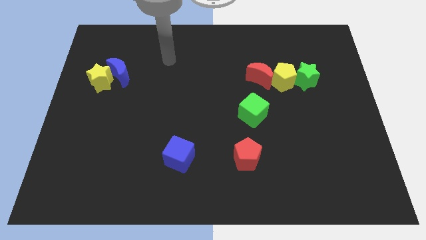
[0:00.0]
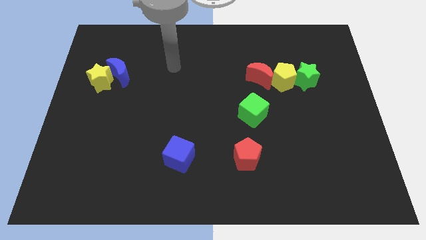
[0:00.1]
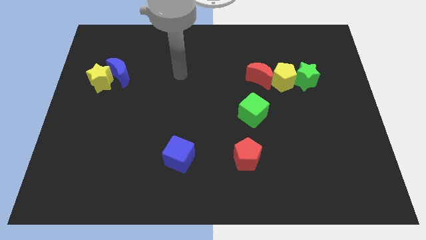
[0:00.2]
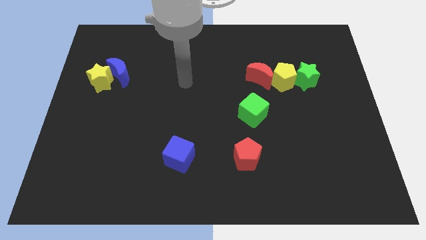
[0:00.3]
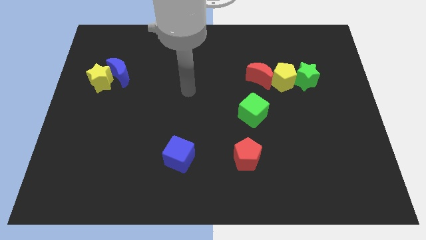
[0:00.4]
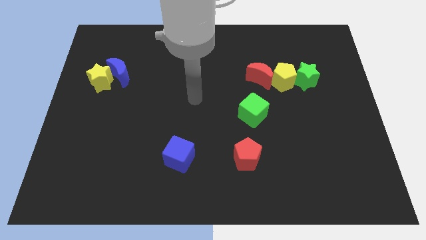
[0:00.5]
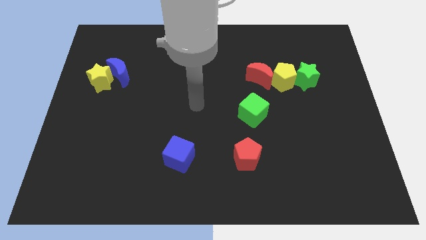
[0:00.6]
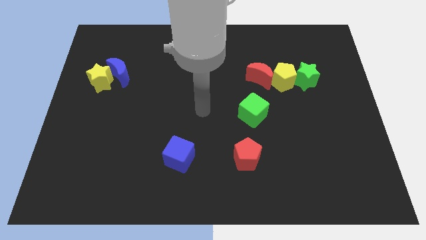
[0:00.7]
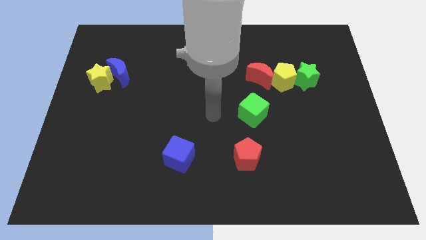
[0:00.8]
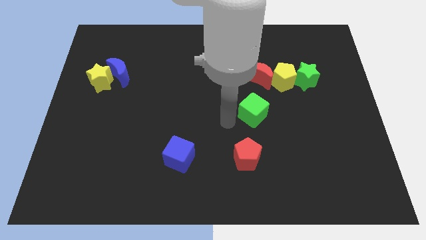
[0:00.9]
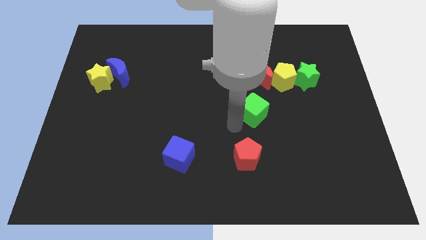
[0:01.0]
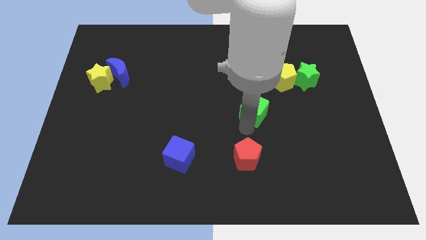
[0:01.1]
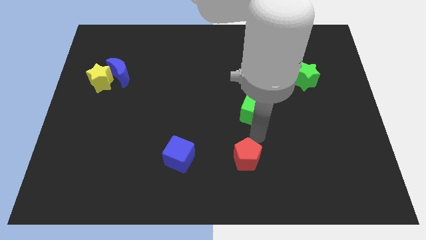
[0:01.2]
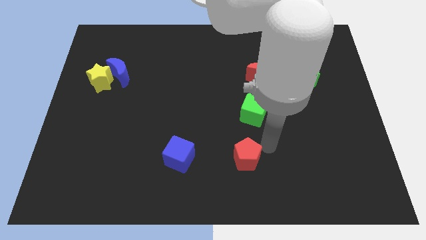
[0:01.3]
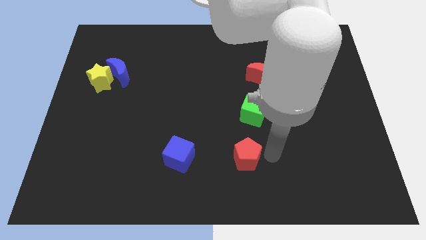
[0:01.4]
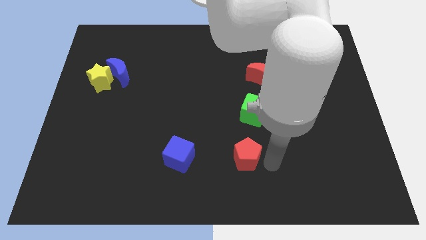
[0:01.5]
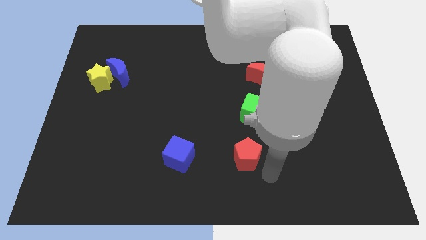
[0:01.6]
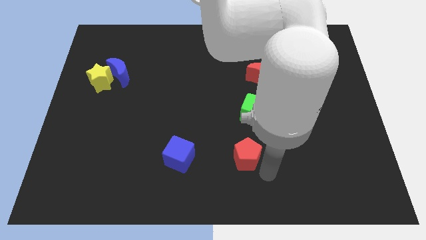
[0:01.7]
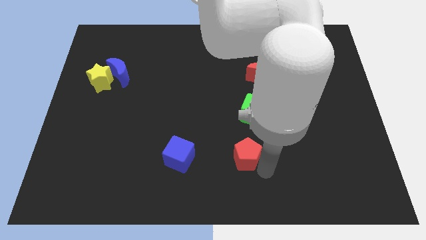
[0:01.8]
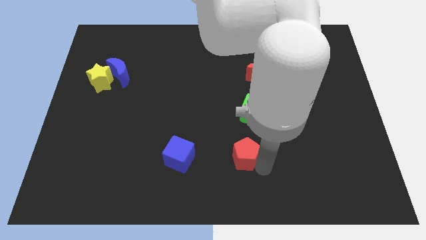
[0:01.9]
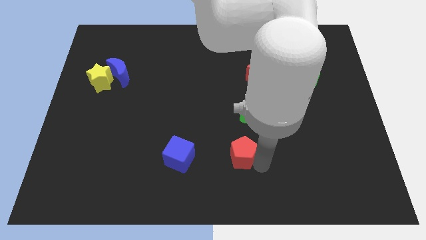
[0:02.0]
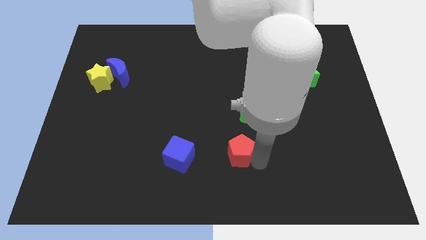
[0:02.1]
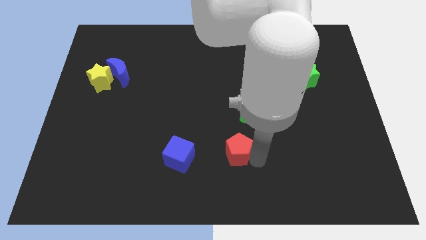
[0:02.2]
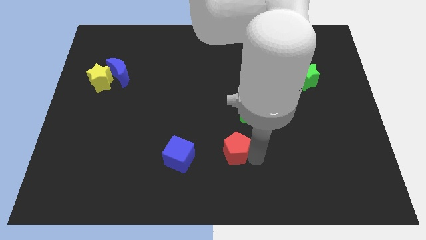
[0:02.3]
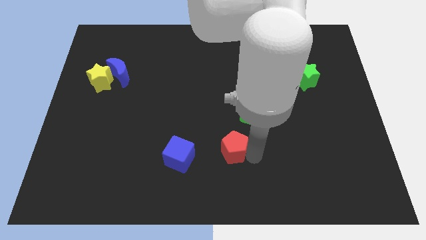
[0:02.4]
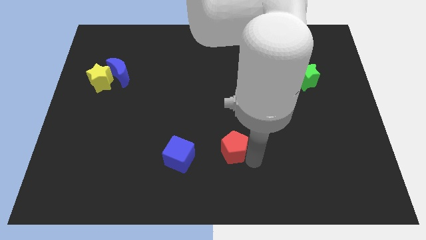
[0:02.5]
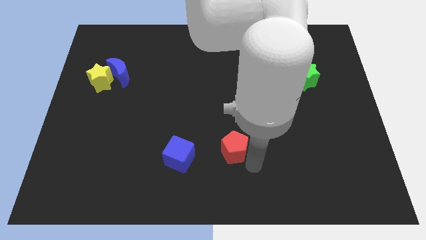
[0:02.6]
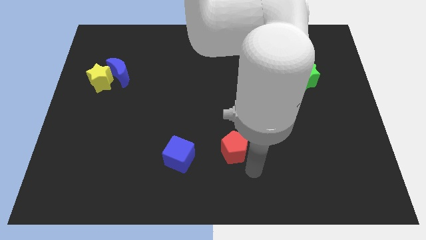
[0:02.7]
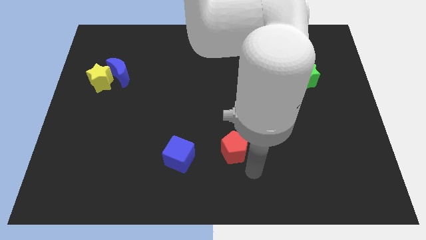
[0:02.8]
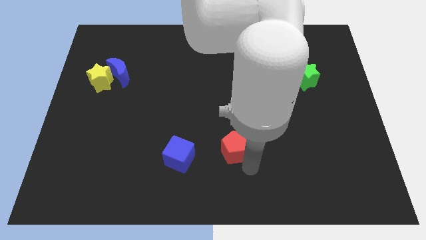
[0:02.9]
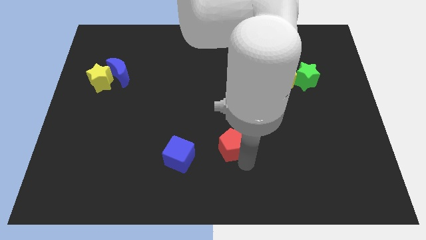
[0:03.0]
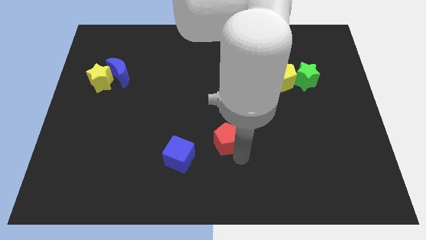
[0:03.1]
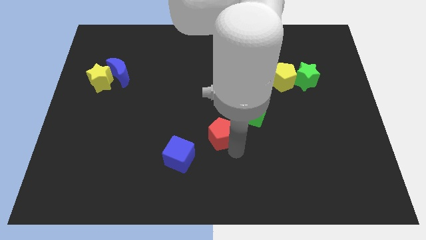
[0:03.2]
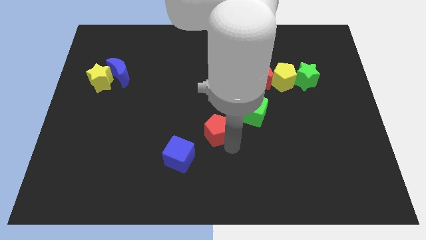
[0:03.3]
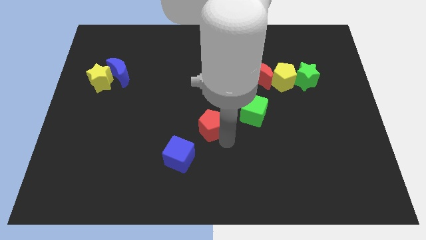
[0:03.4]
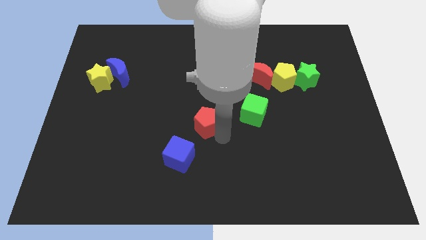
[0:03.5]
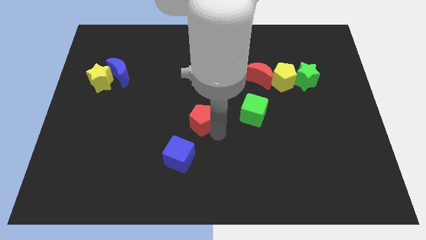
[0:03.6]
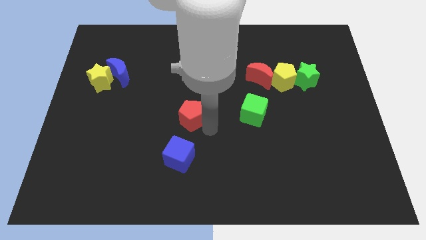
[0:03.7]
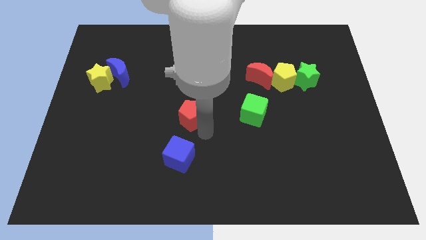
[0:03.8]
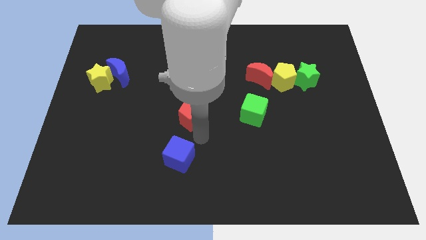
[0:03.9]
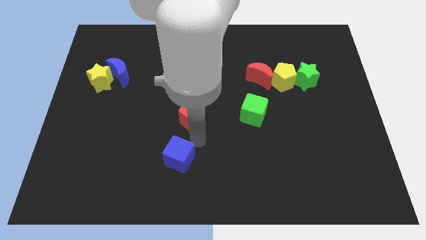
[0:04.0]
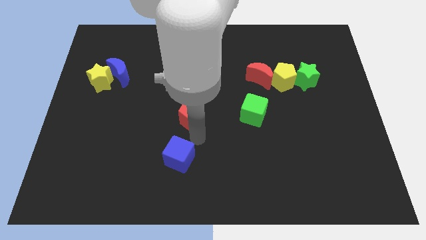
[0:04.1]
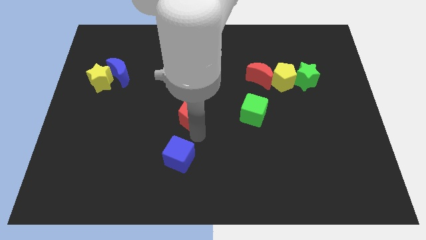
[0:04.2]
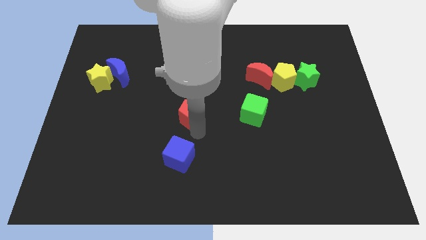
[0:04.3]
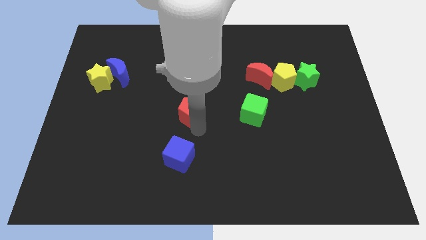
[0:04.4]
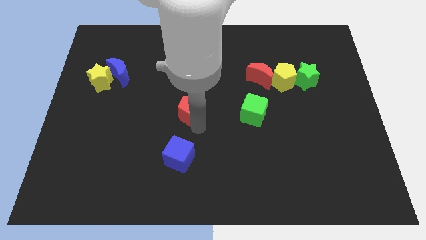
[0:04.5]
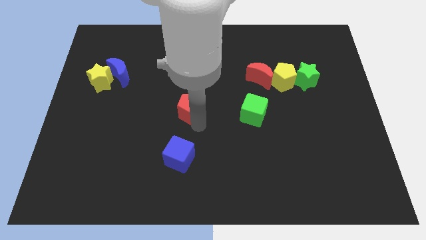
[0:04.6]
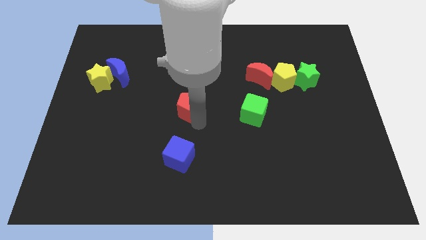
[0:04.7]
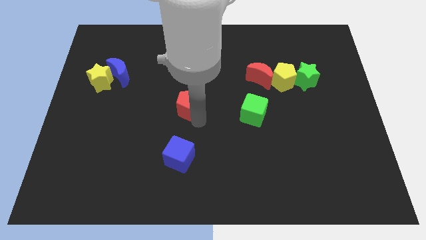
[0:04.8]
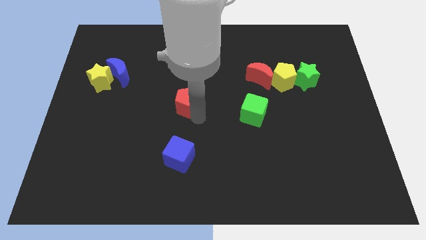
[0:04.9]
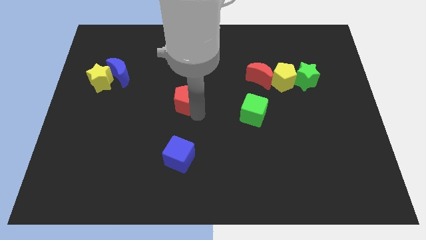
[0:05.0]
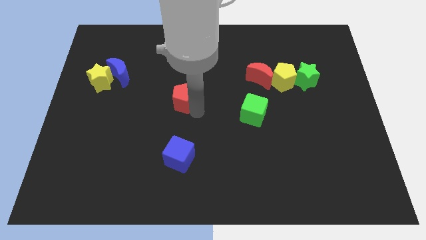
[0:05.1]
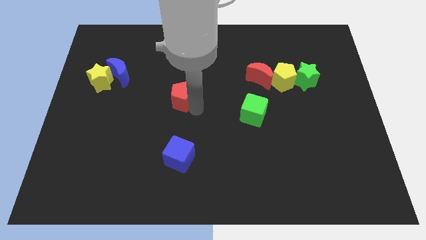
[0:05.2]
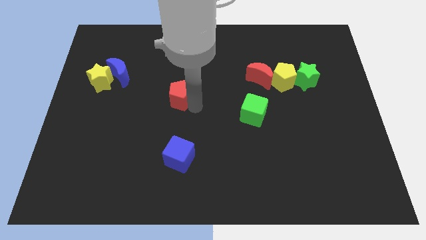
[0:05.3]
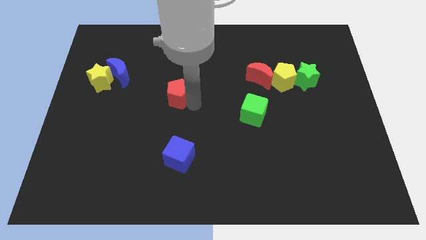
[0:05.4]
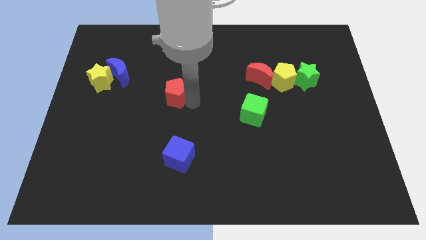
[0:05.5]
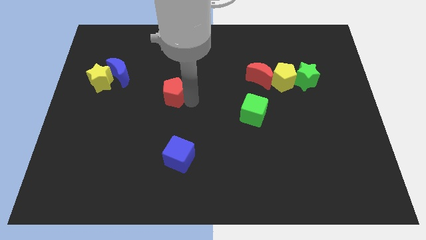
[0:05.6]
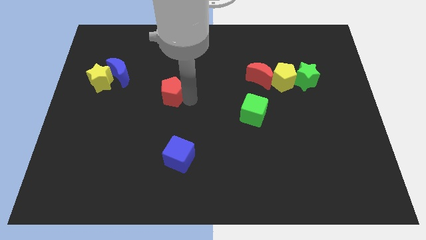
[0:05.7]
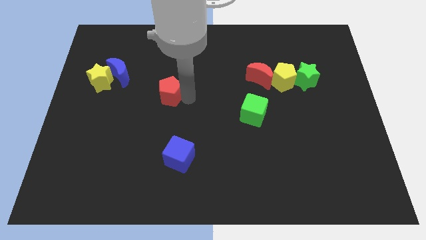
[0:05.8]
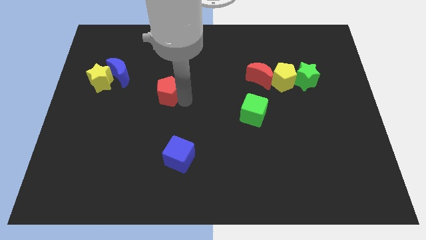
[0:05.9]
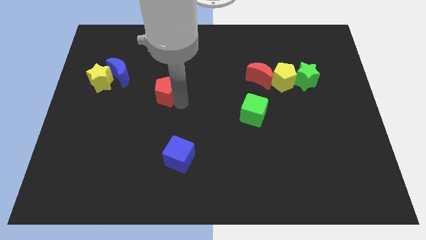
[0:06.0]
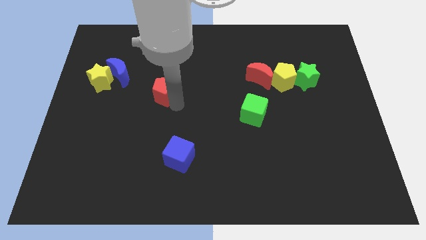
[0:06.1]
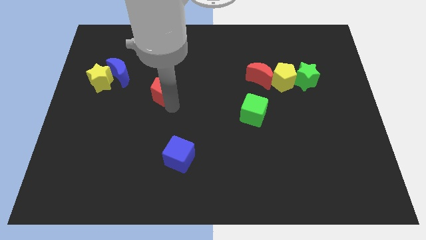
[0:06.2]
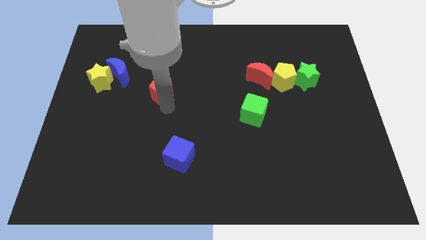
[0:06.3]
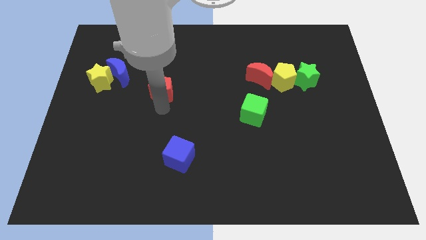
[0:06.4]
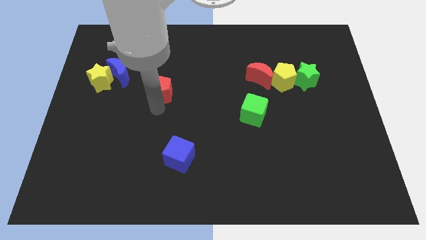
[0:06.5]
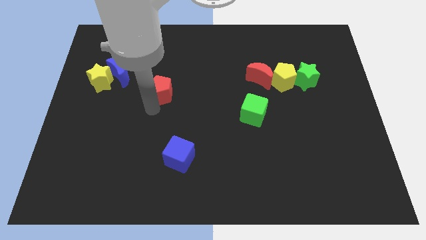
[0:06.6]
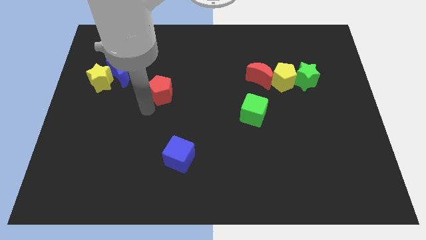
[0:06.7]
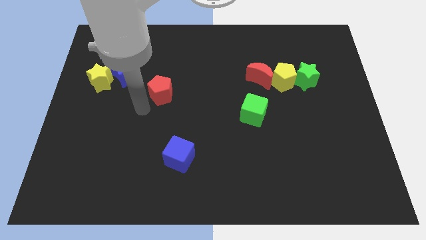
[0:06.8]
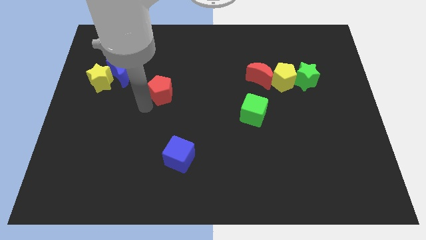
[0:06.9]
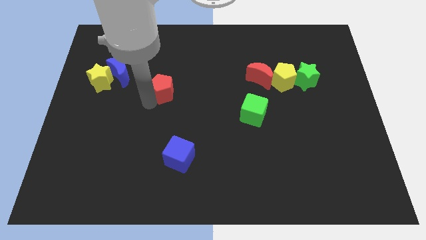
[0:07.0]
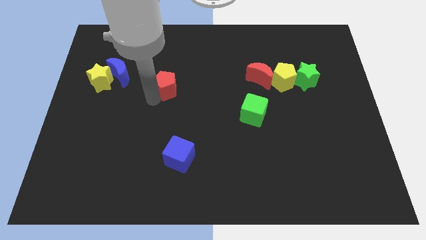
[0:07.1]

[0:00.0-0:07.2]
push the red pentagon to the right of the blue moon

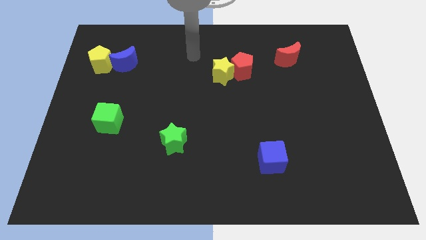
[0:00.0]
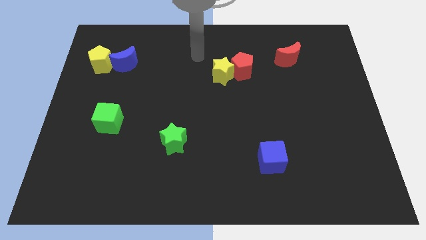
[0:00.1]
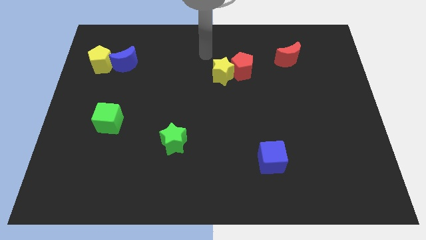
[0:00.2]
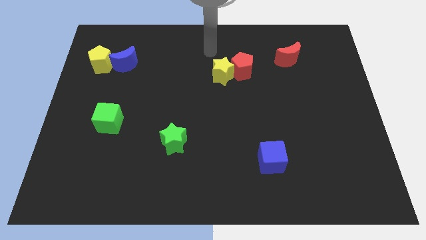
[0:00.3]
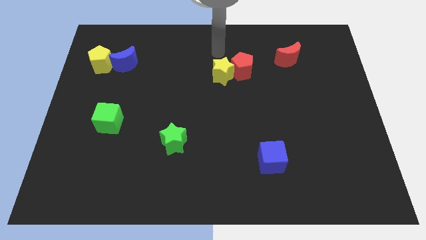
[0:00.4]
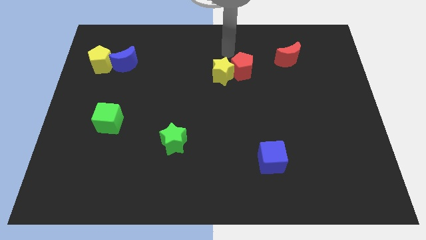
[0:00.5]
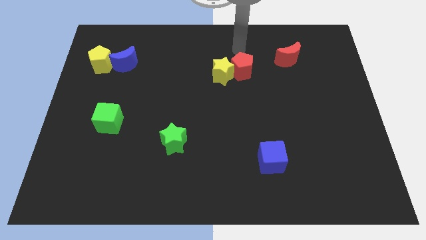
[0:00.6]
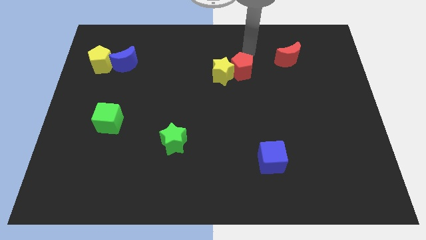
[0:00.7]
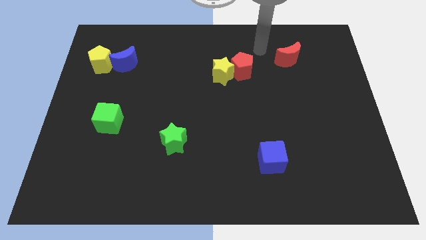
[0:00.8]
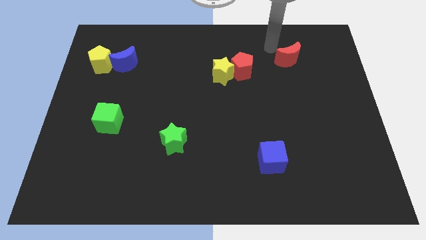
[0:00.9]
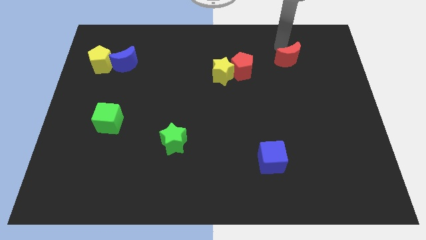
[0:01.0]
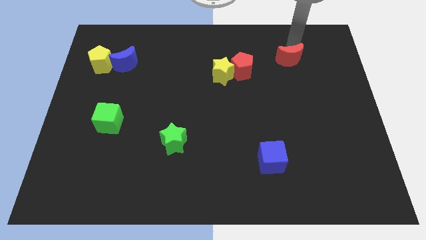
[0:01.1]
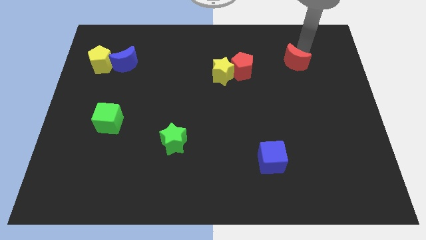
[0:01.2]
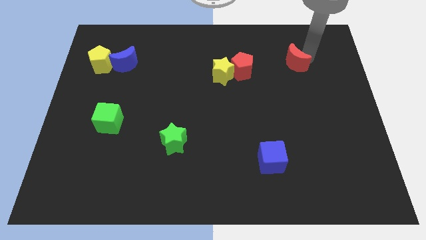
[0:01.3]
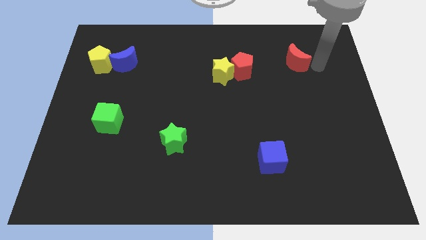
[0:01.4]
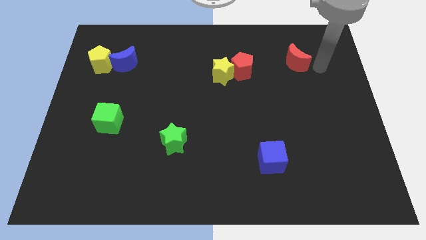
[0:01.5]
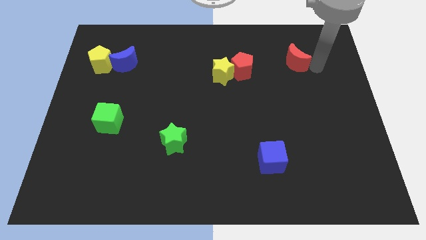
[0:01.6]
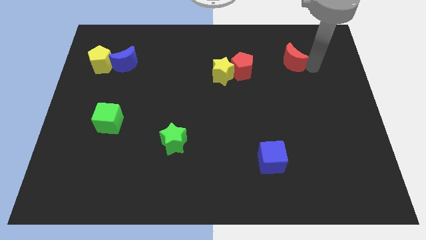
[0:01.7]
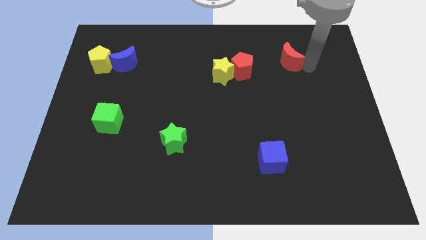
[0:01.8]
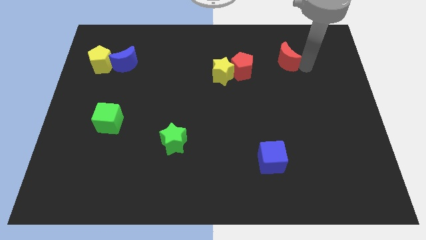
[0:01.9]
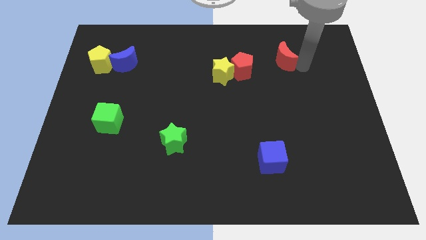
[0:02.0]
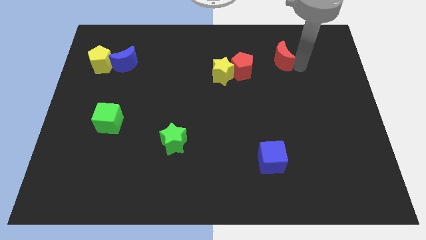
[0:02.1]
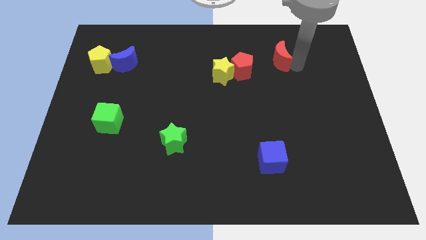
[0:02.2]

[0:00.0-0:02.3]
slide the red moon to the top right side of the red pentagon
